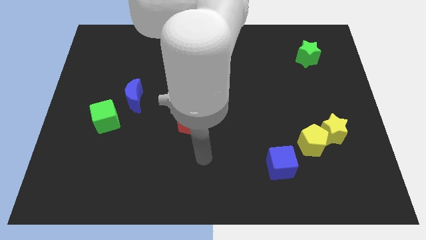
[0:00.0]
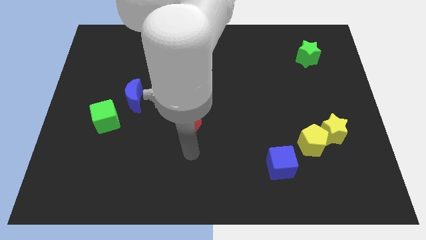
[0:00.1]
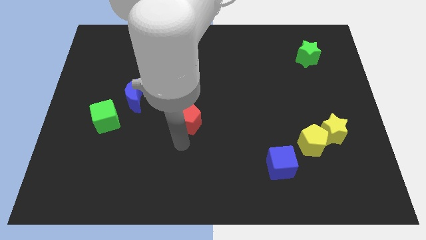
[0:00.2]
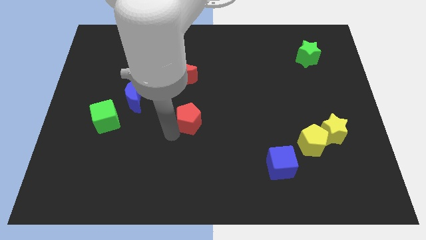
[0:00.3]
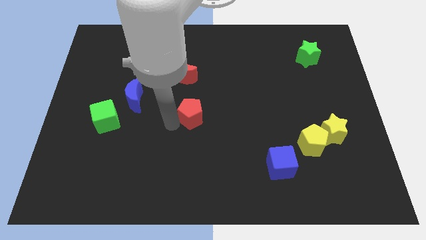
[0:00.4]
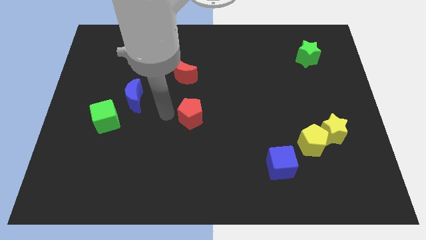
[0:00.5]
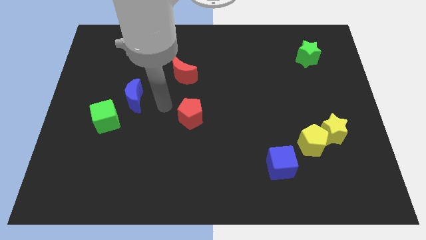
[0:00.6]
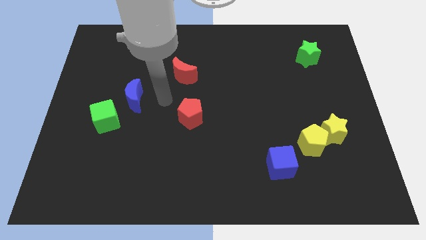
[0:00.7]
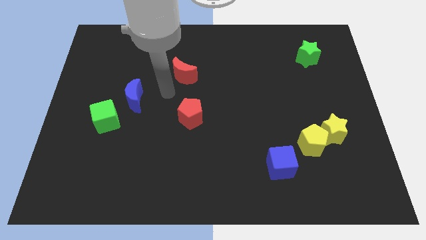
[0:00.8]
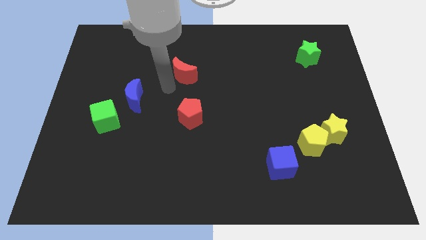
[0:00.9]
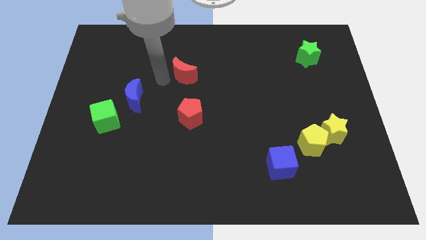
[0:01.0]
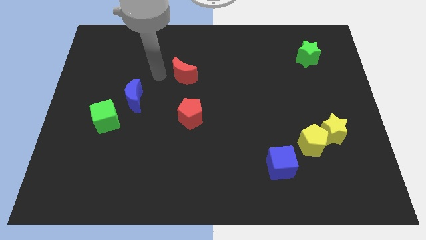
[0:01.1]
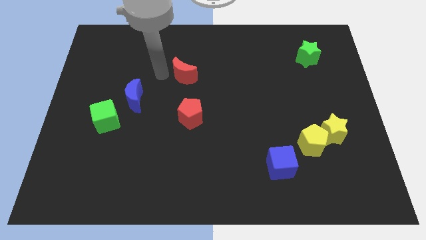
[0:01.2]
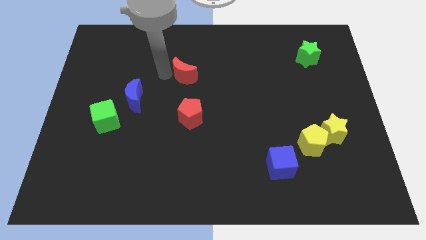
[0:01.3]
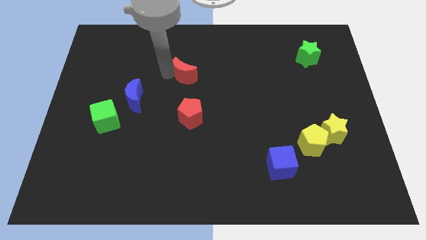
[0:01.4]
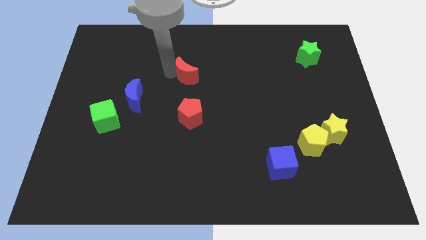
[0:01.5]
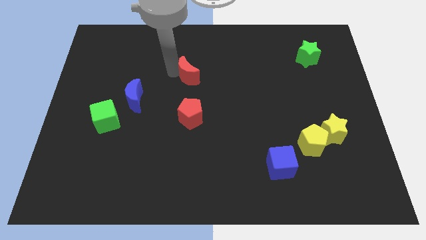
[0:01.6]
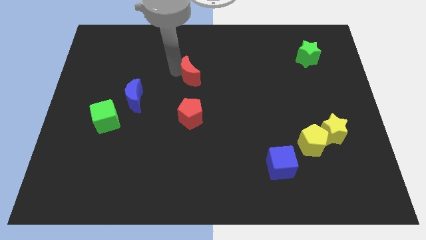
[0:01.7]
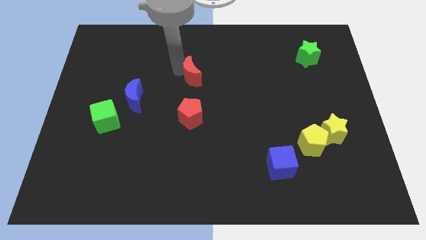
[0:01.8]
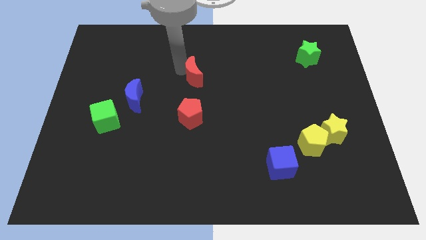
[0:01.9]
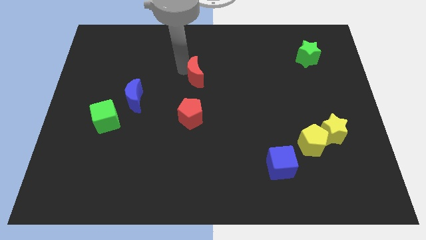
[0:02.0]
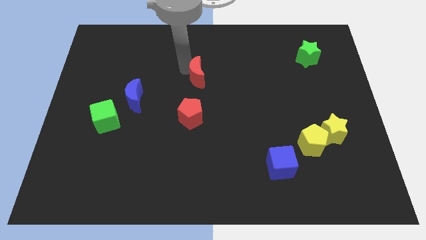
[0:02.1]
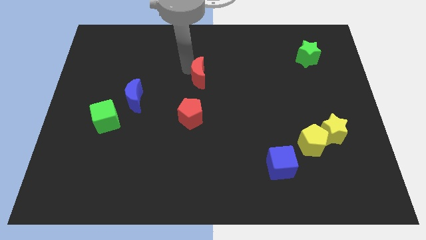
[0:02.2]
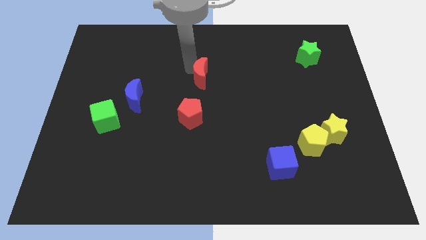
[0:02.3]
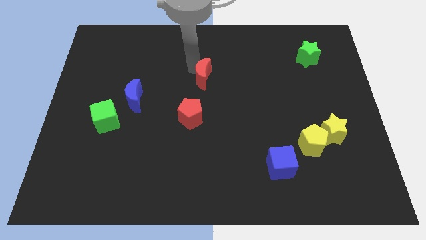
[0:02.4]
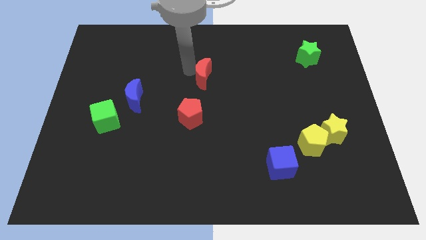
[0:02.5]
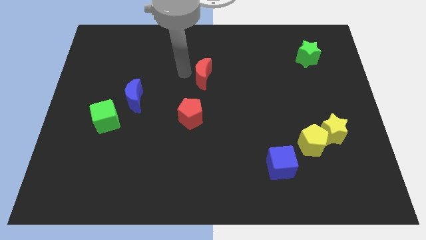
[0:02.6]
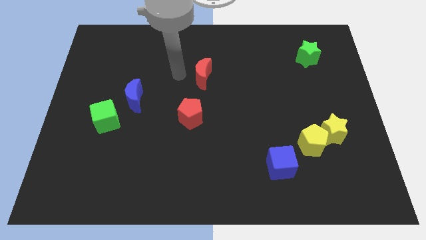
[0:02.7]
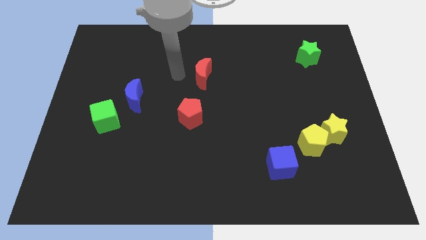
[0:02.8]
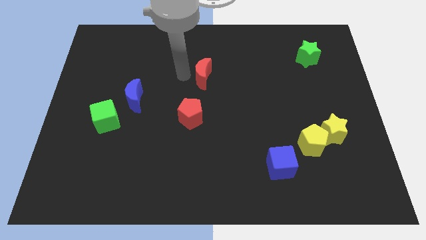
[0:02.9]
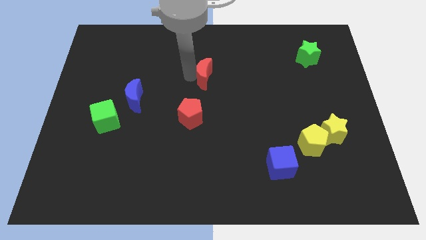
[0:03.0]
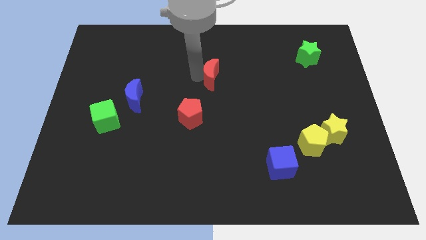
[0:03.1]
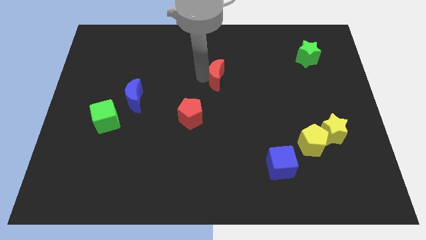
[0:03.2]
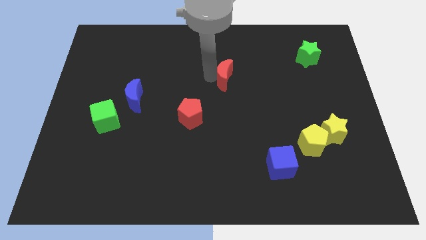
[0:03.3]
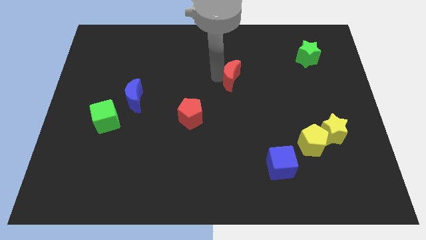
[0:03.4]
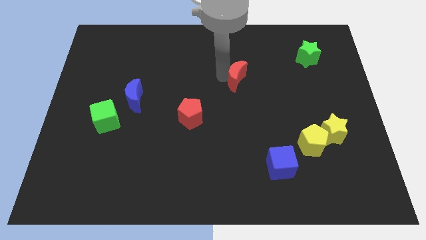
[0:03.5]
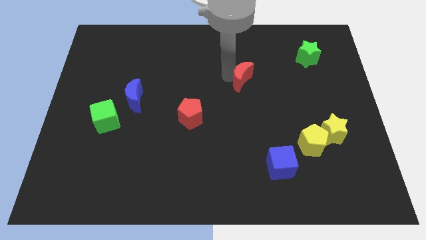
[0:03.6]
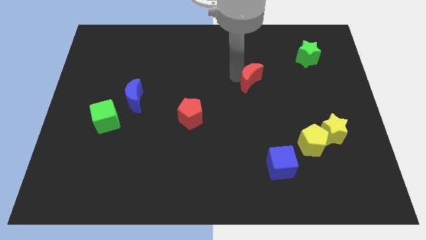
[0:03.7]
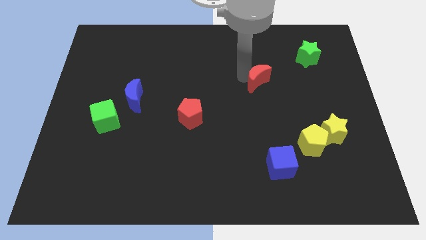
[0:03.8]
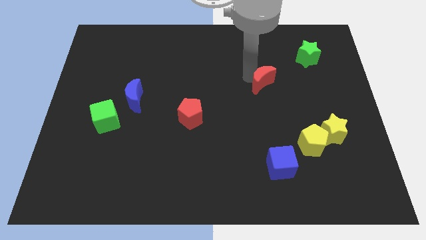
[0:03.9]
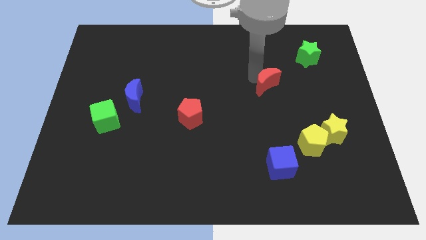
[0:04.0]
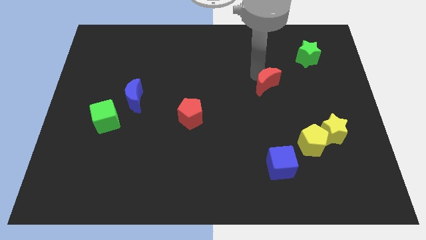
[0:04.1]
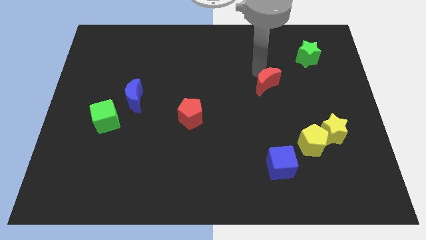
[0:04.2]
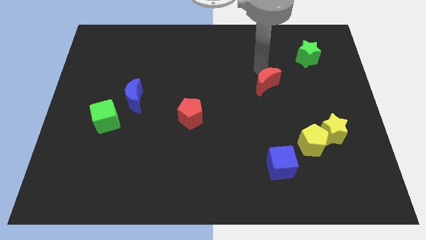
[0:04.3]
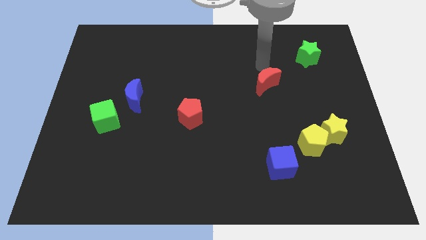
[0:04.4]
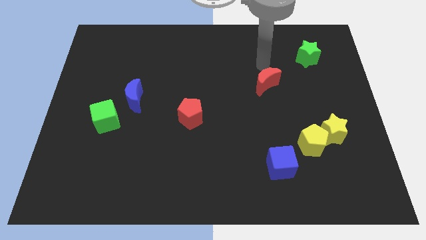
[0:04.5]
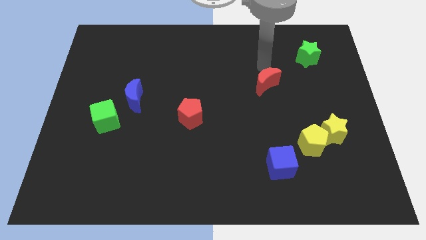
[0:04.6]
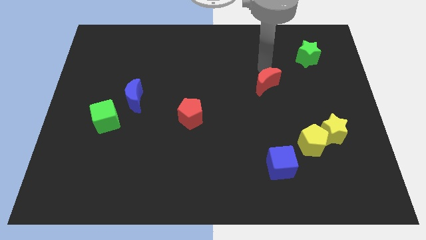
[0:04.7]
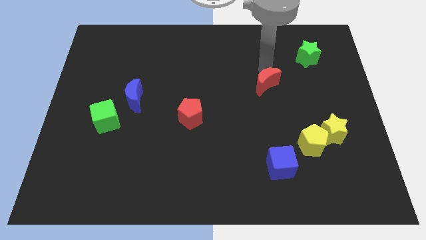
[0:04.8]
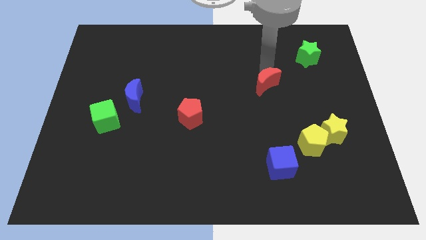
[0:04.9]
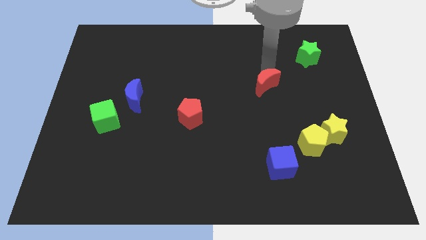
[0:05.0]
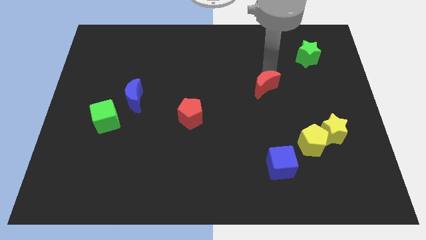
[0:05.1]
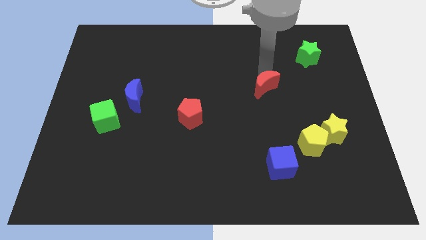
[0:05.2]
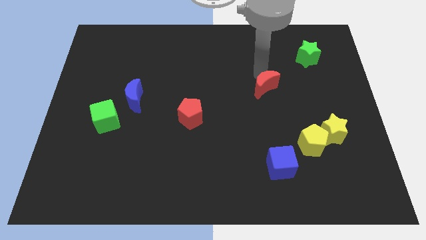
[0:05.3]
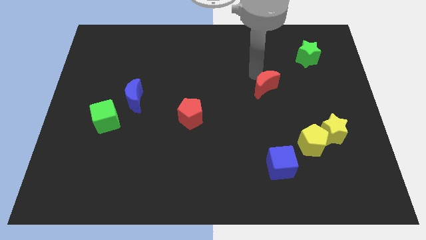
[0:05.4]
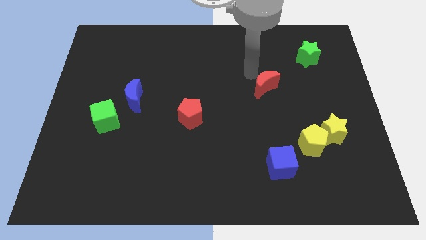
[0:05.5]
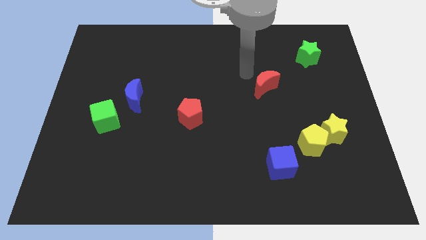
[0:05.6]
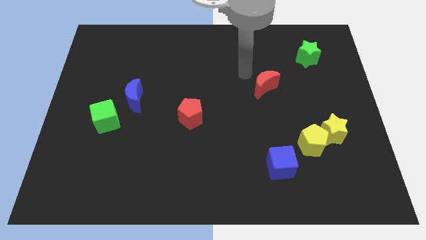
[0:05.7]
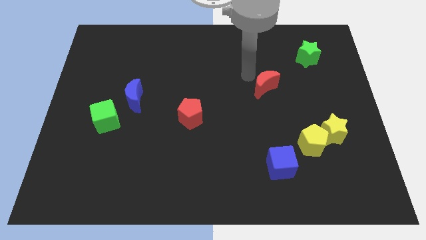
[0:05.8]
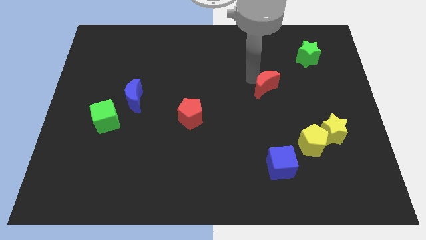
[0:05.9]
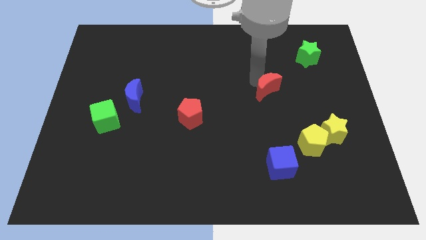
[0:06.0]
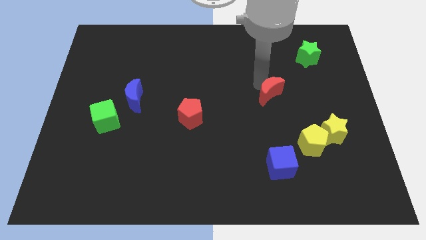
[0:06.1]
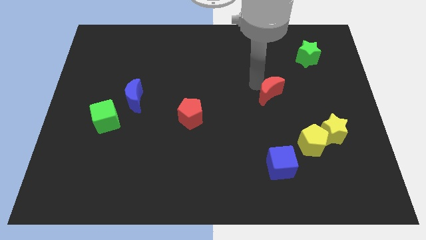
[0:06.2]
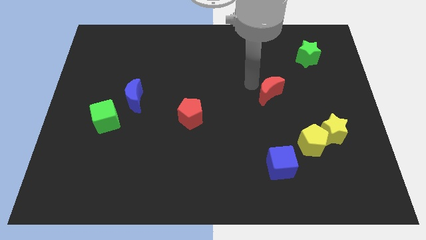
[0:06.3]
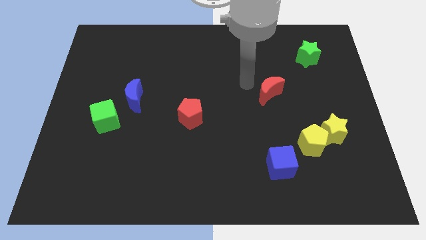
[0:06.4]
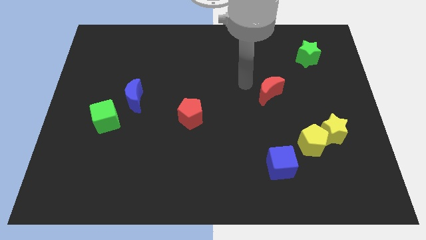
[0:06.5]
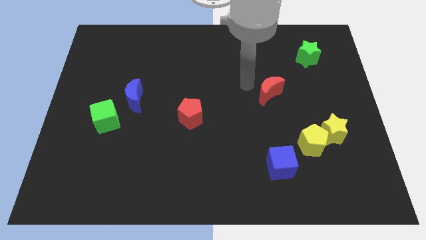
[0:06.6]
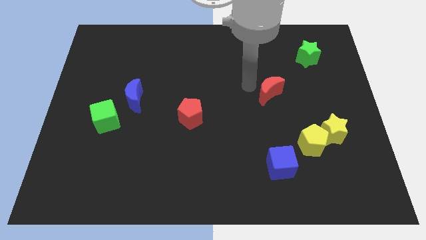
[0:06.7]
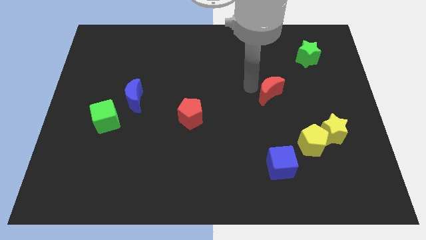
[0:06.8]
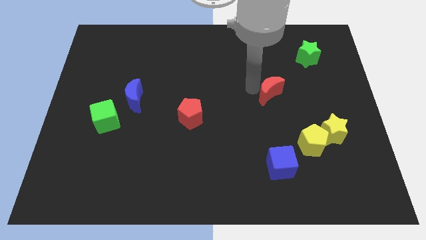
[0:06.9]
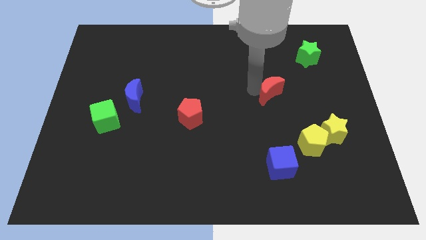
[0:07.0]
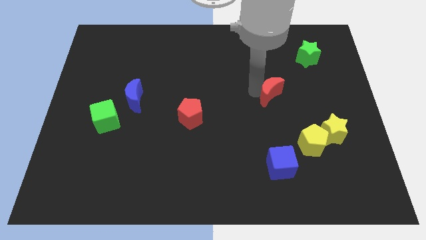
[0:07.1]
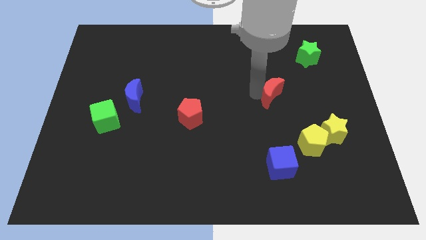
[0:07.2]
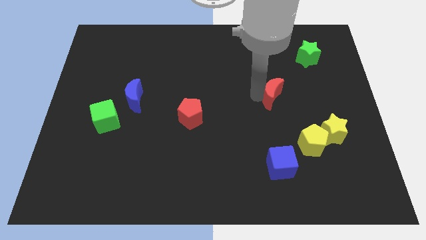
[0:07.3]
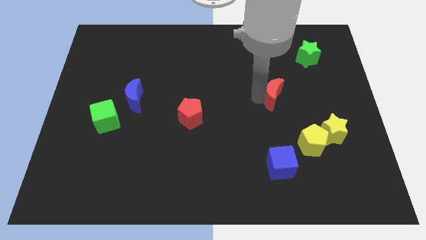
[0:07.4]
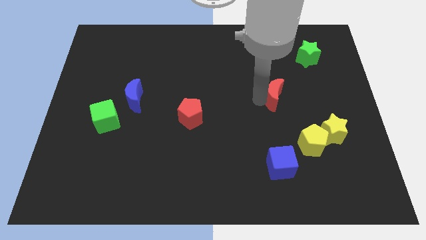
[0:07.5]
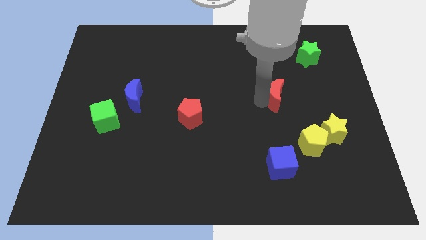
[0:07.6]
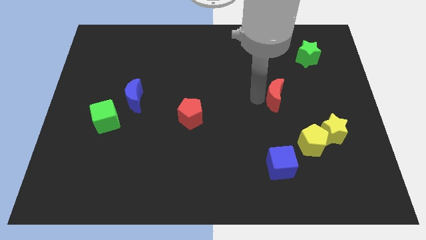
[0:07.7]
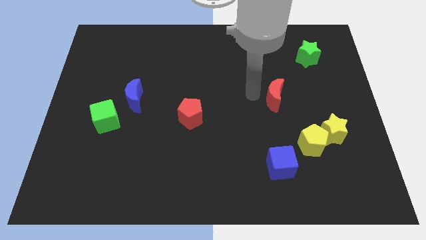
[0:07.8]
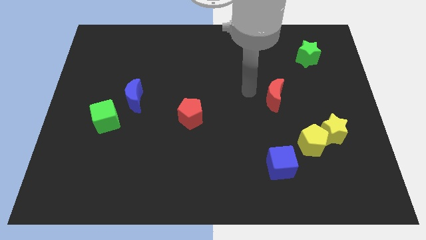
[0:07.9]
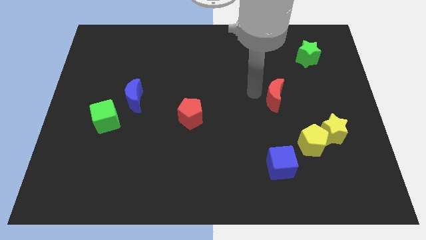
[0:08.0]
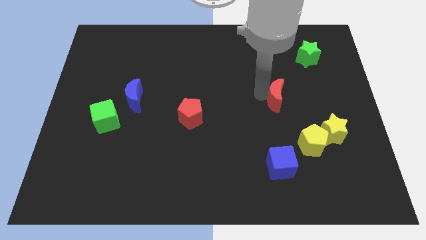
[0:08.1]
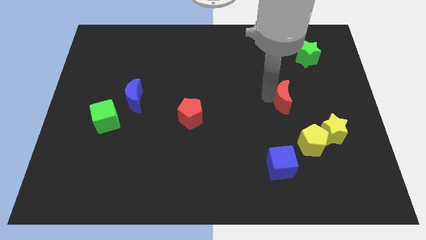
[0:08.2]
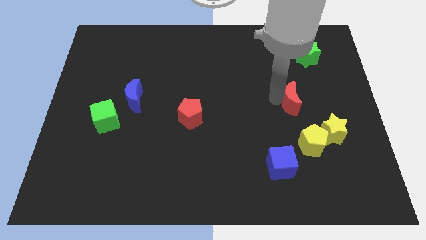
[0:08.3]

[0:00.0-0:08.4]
slide the red moon to the top of the yellow pentagon
